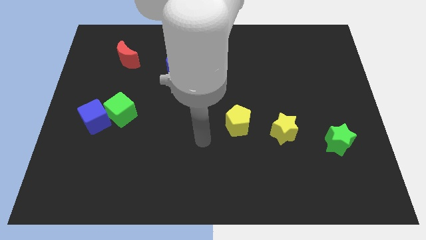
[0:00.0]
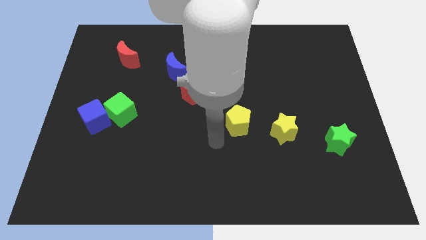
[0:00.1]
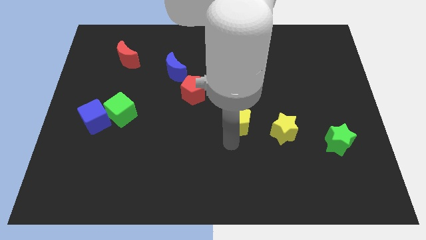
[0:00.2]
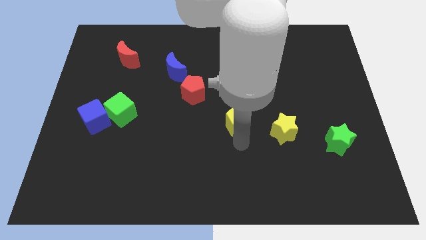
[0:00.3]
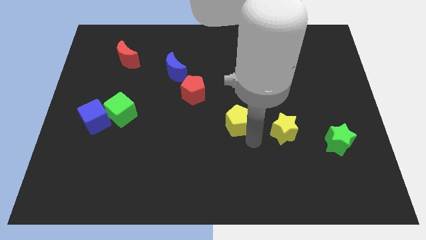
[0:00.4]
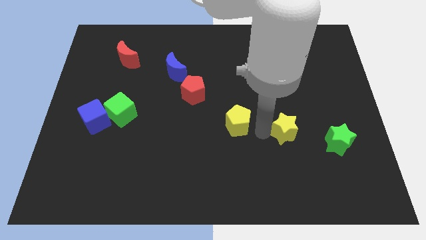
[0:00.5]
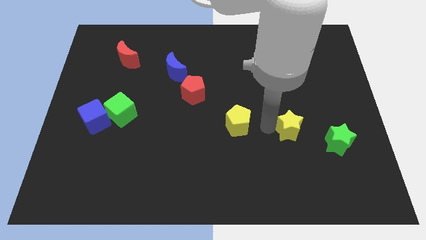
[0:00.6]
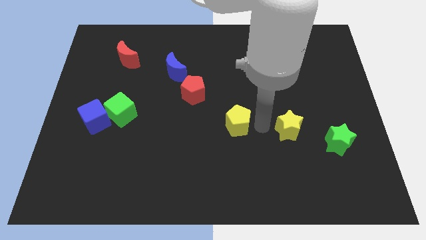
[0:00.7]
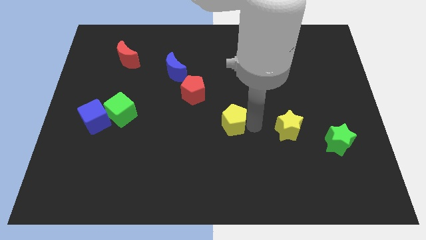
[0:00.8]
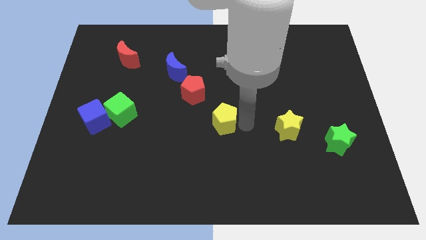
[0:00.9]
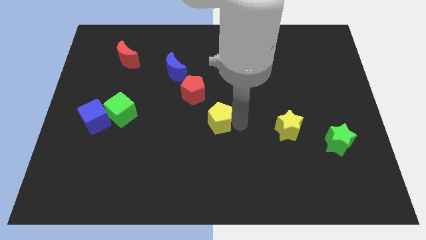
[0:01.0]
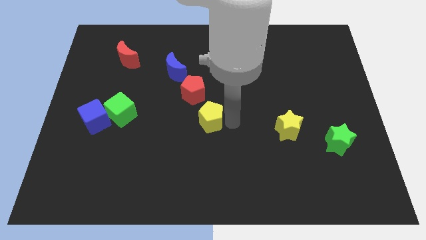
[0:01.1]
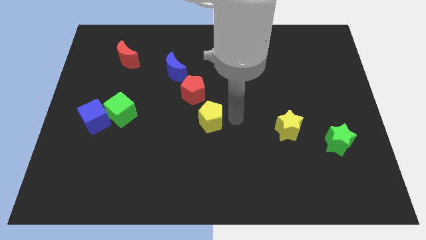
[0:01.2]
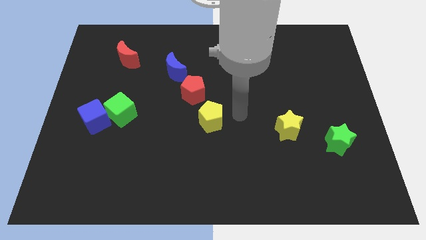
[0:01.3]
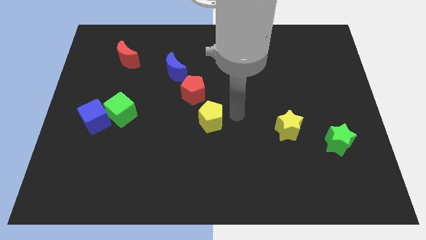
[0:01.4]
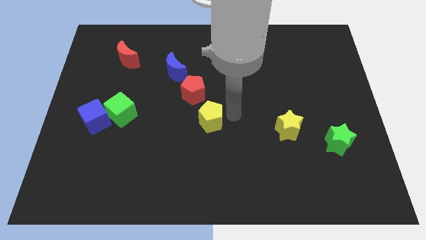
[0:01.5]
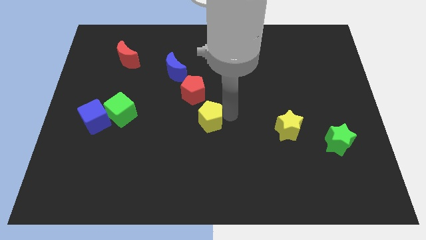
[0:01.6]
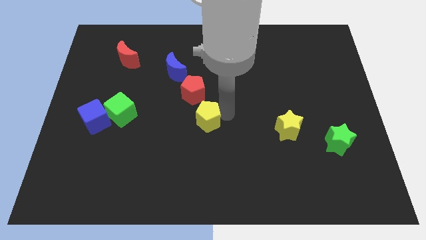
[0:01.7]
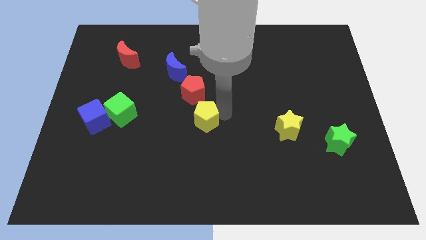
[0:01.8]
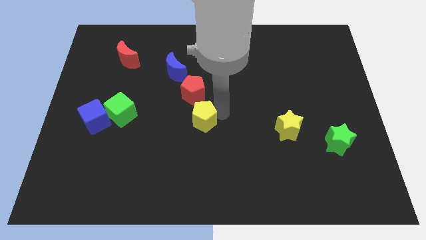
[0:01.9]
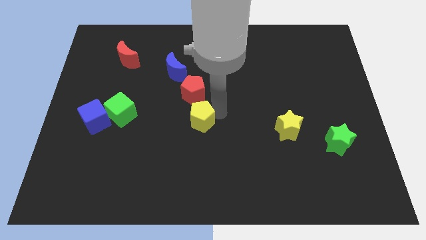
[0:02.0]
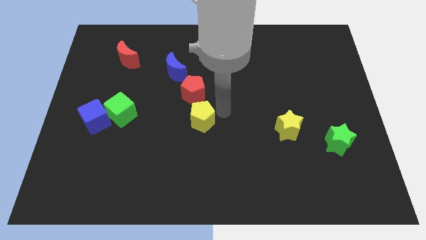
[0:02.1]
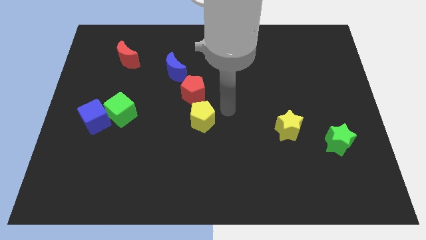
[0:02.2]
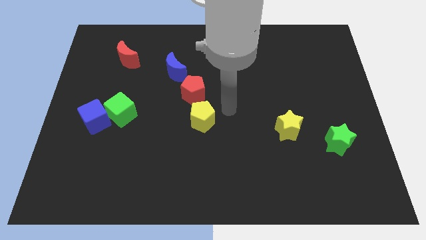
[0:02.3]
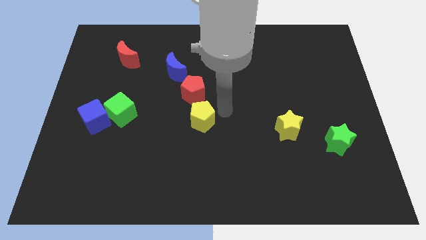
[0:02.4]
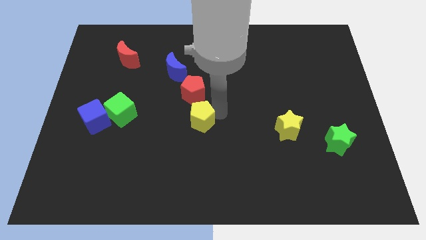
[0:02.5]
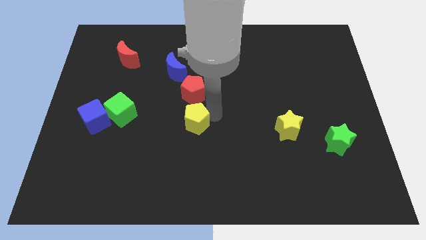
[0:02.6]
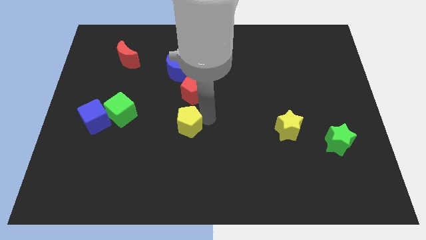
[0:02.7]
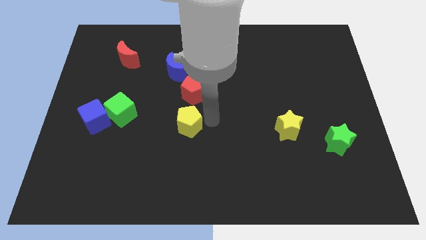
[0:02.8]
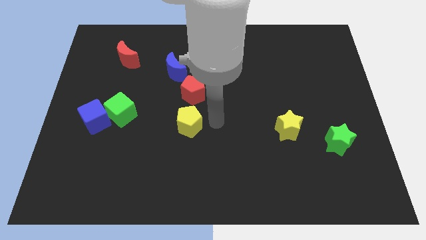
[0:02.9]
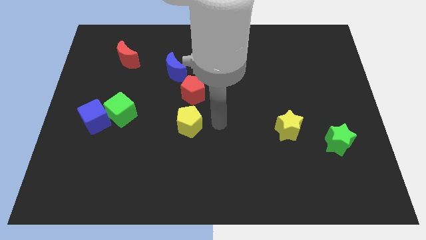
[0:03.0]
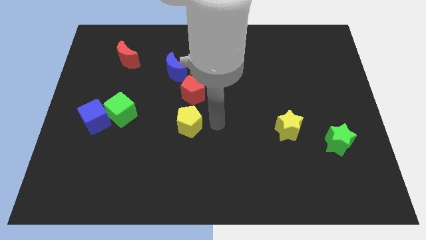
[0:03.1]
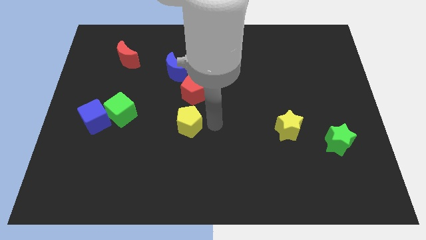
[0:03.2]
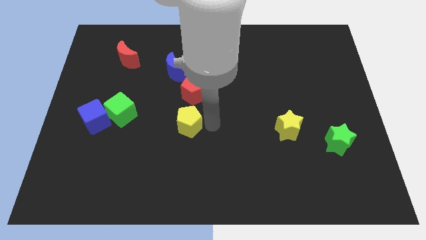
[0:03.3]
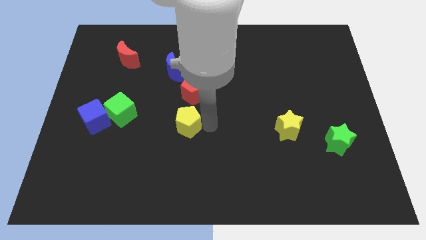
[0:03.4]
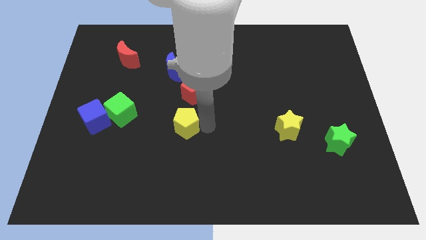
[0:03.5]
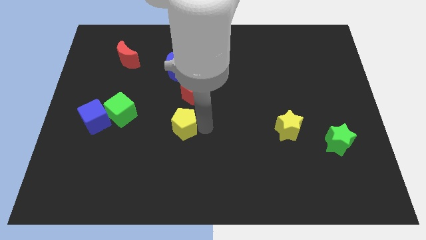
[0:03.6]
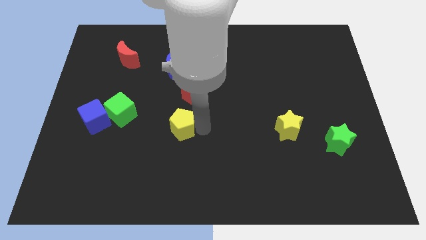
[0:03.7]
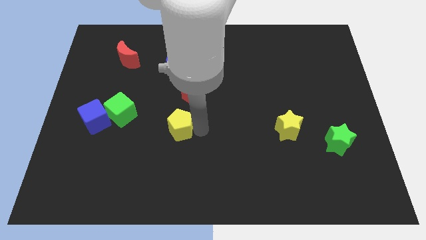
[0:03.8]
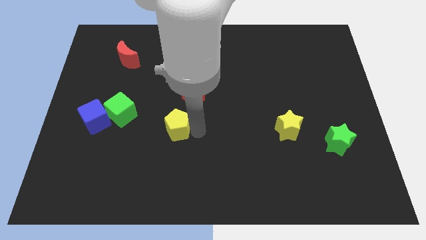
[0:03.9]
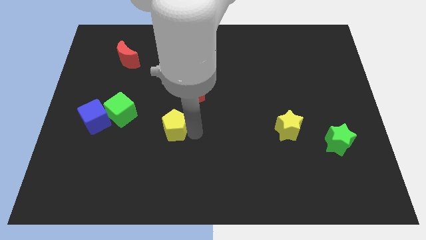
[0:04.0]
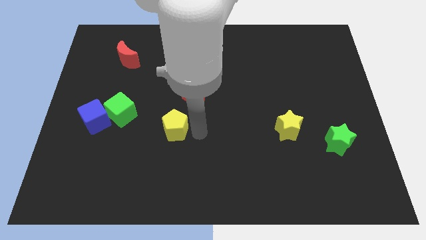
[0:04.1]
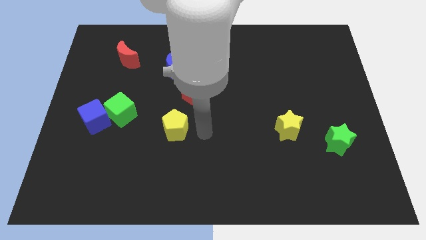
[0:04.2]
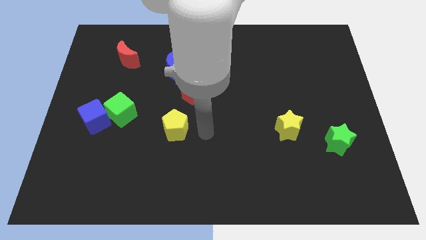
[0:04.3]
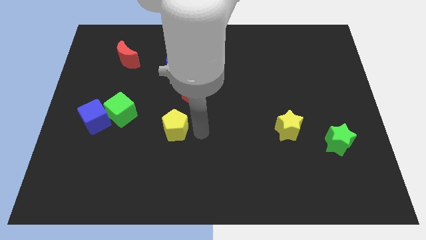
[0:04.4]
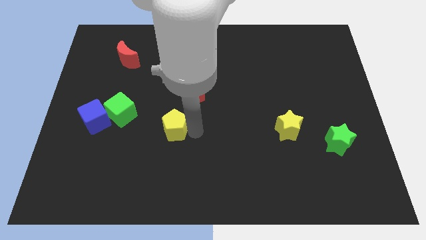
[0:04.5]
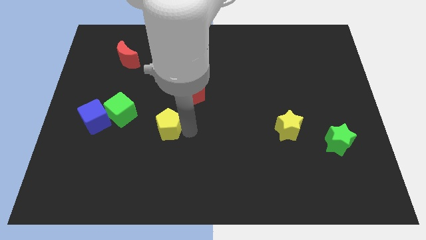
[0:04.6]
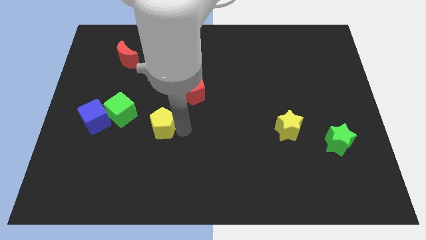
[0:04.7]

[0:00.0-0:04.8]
push the yellow pentagon diagonally down and to the right of the green cube

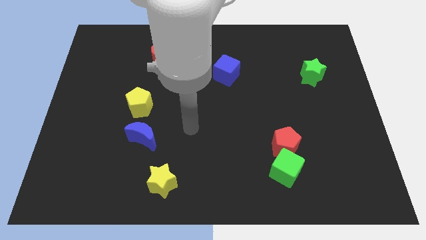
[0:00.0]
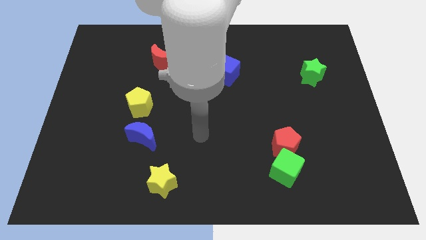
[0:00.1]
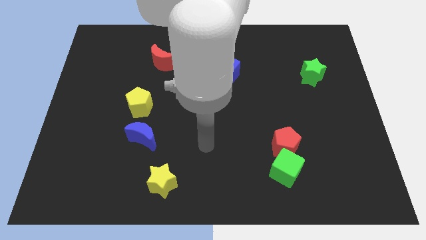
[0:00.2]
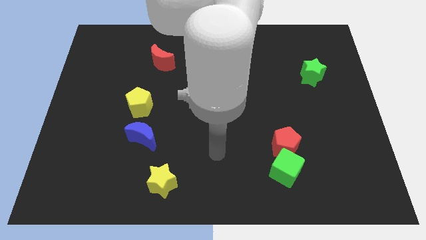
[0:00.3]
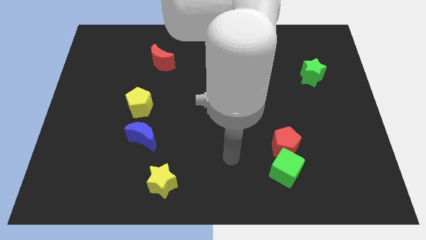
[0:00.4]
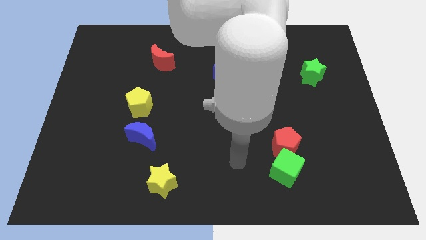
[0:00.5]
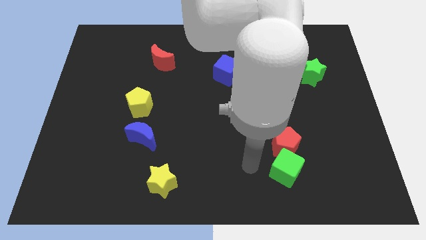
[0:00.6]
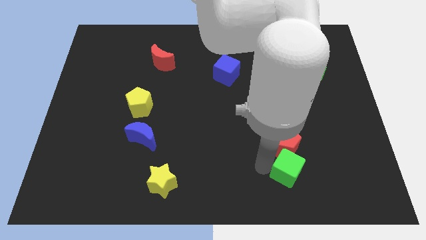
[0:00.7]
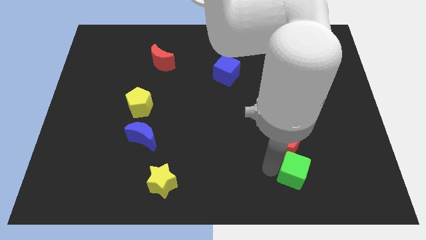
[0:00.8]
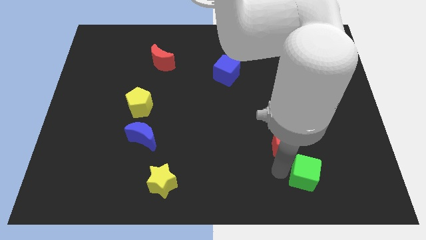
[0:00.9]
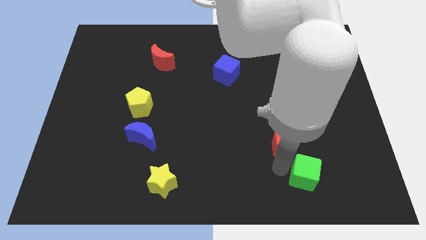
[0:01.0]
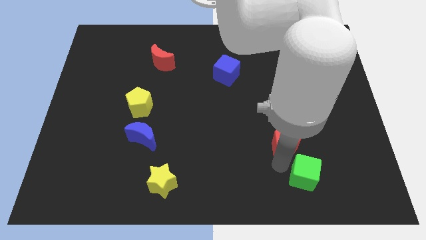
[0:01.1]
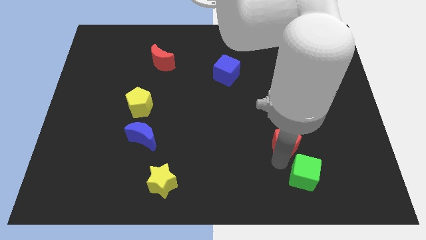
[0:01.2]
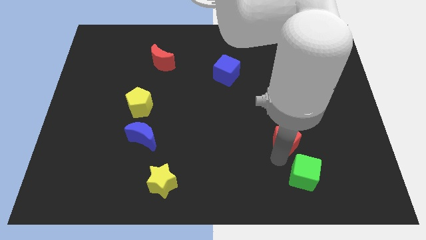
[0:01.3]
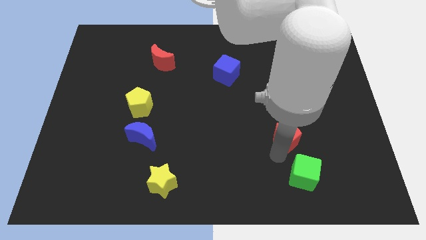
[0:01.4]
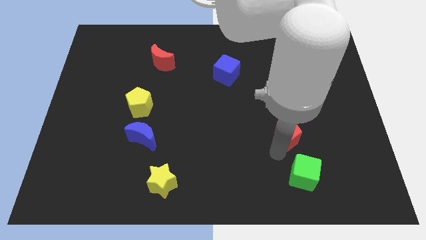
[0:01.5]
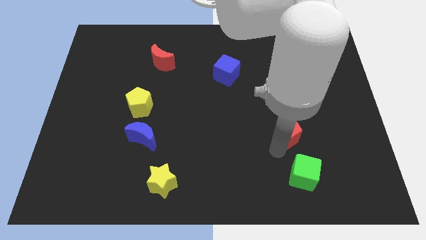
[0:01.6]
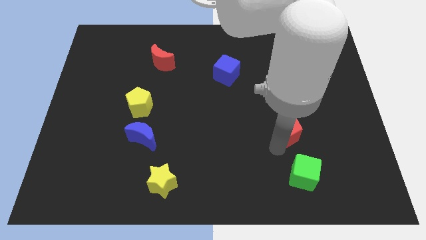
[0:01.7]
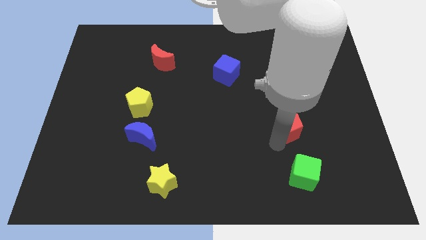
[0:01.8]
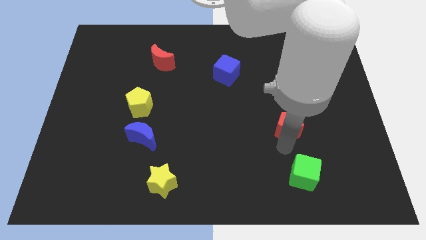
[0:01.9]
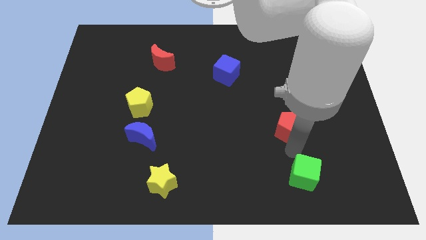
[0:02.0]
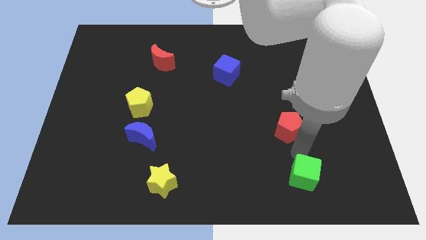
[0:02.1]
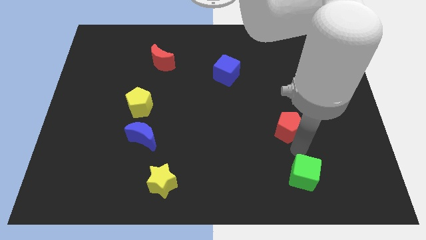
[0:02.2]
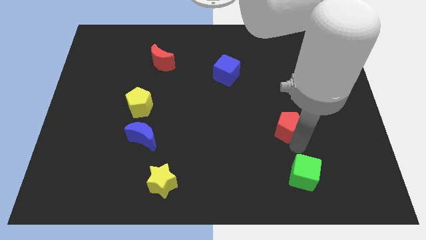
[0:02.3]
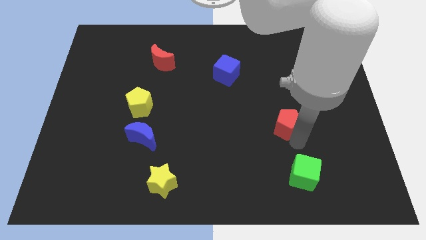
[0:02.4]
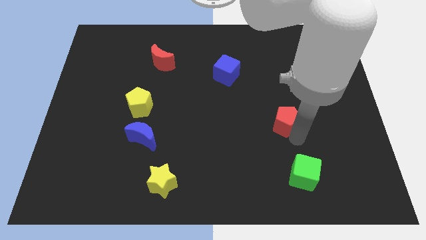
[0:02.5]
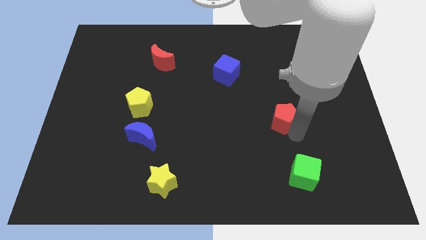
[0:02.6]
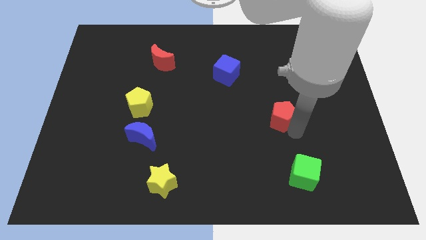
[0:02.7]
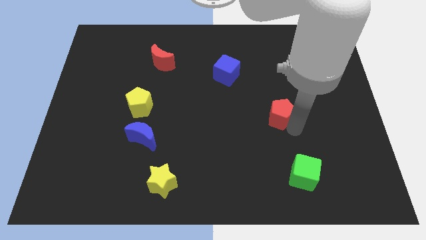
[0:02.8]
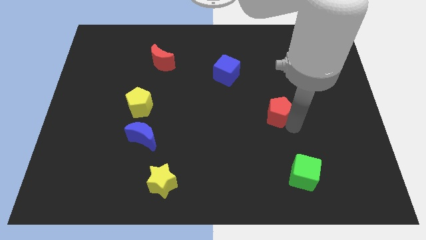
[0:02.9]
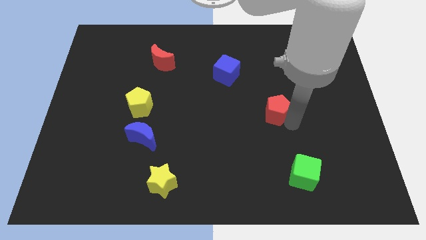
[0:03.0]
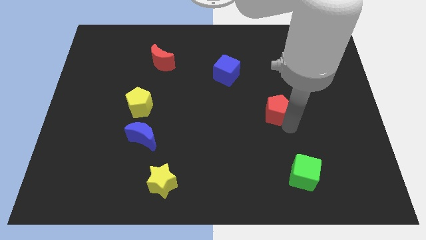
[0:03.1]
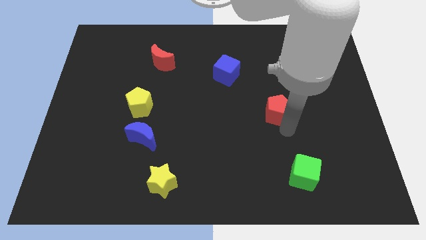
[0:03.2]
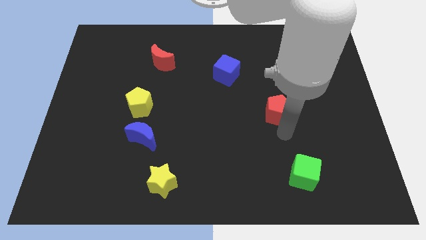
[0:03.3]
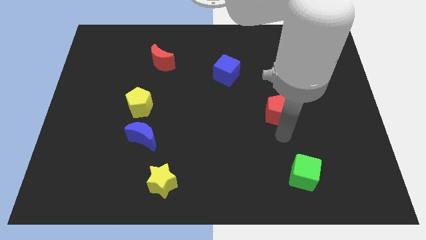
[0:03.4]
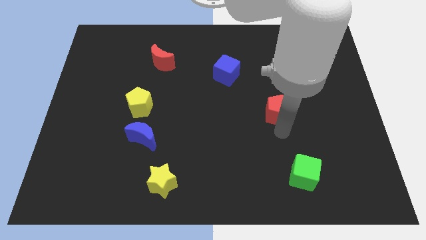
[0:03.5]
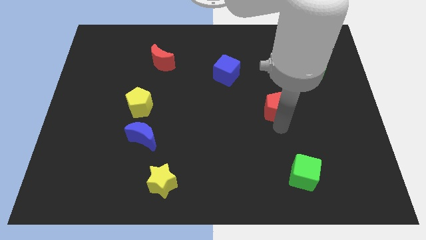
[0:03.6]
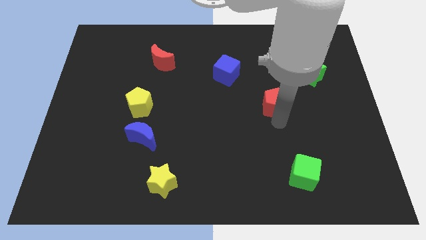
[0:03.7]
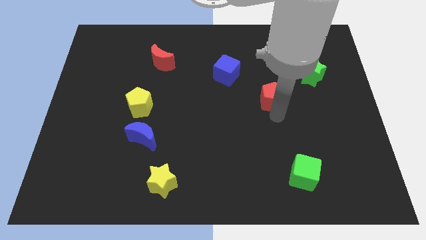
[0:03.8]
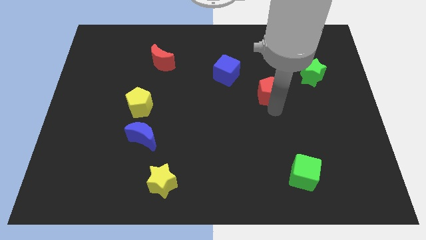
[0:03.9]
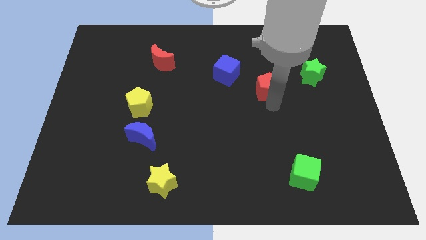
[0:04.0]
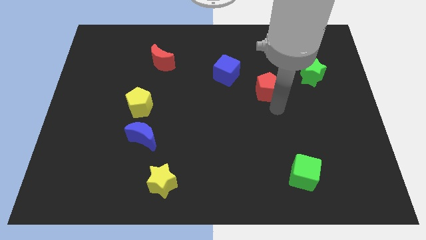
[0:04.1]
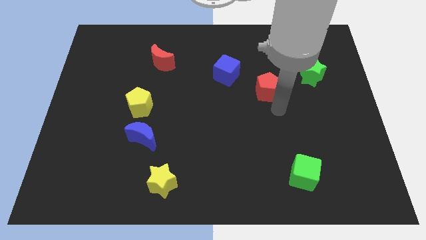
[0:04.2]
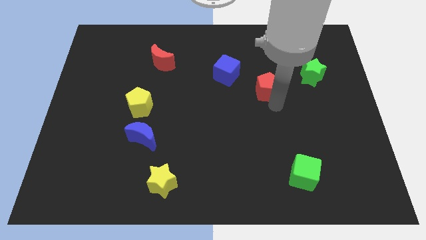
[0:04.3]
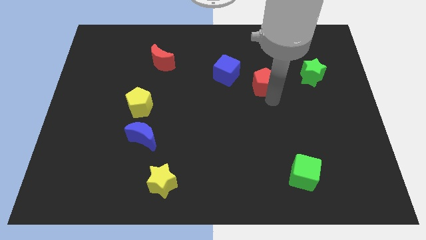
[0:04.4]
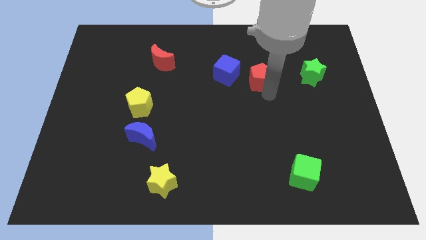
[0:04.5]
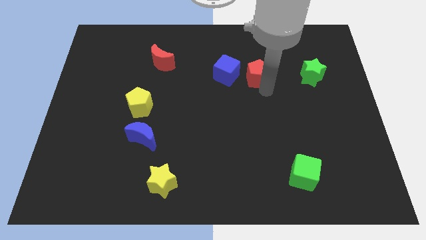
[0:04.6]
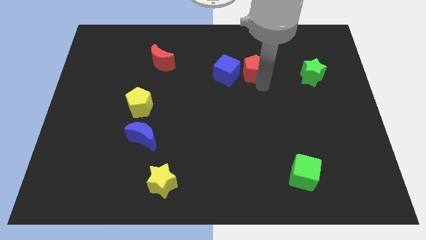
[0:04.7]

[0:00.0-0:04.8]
slide the red pentagon diagonally up and to the right of the blue cube
